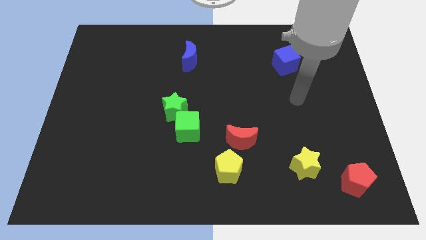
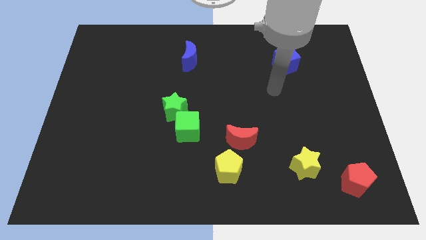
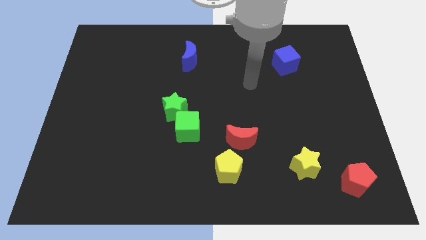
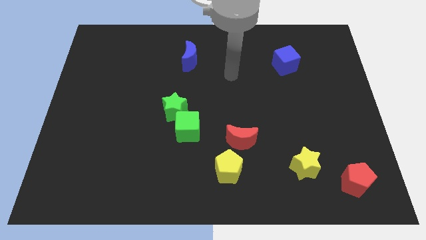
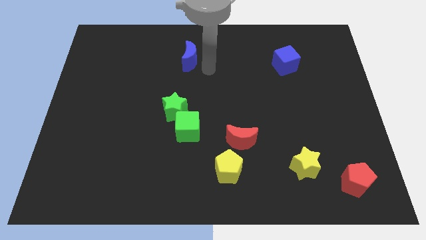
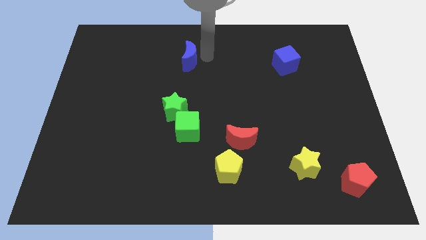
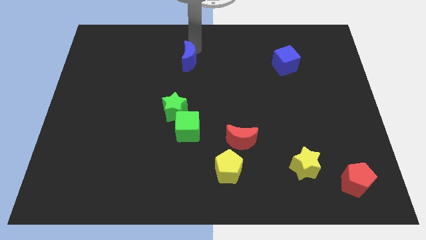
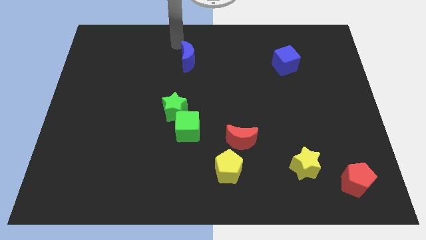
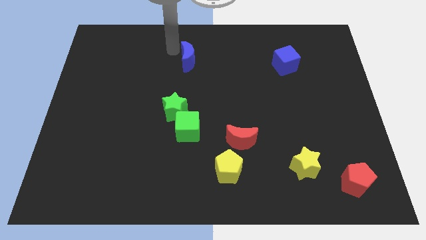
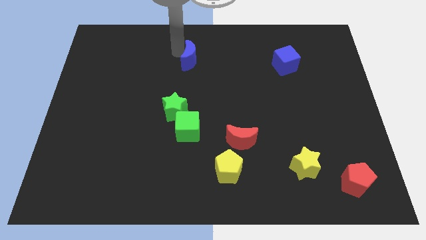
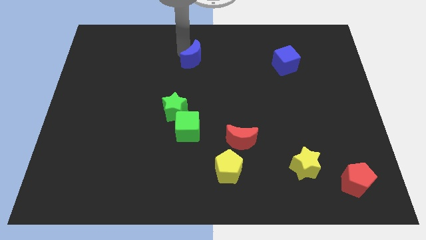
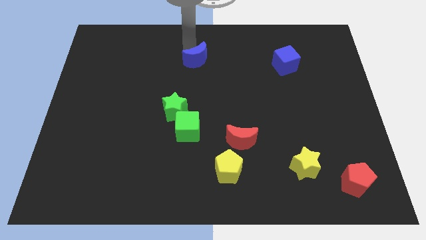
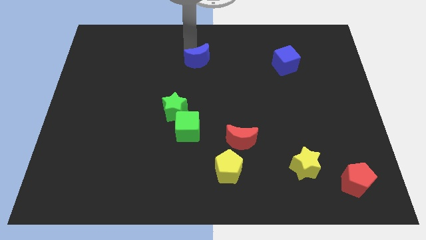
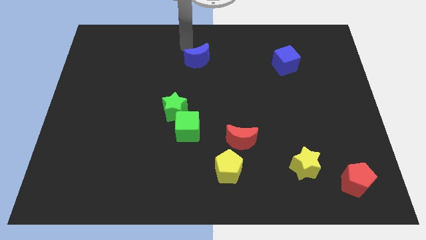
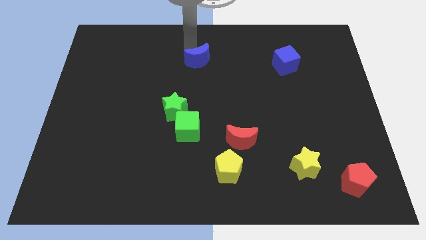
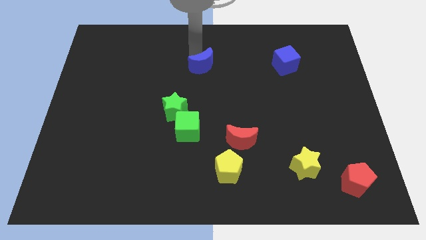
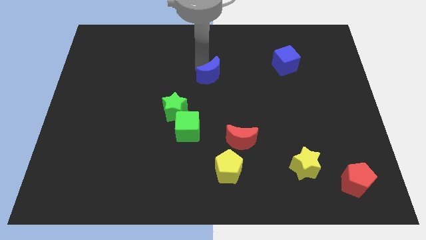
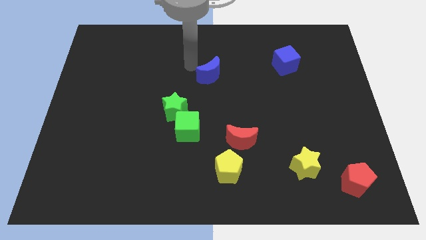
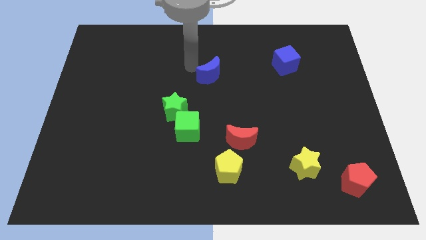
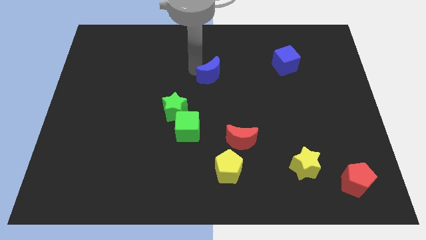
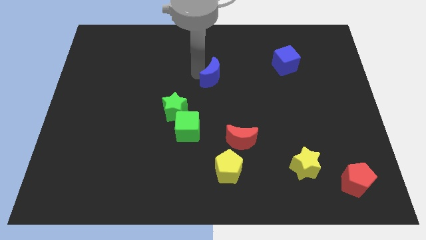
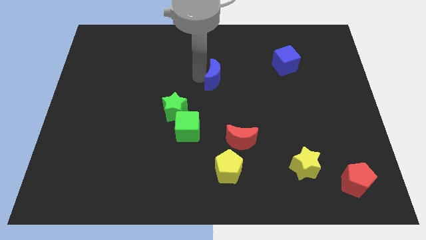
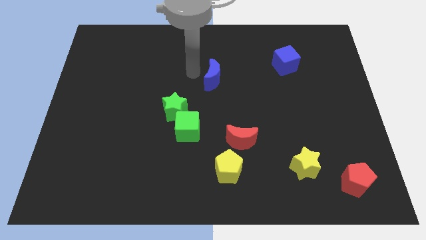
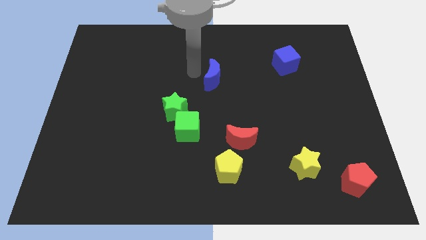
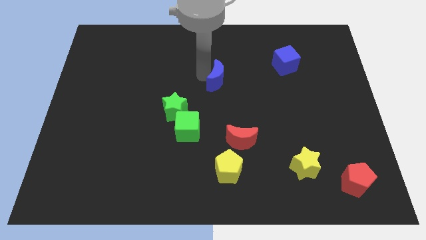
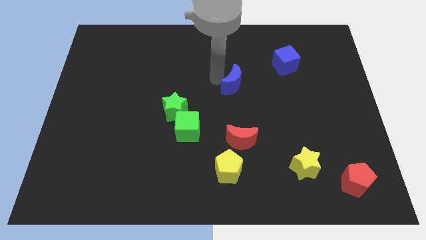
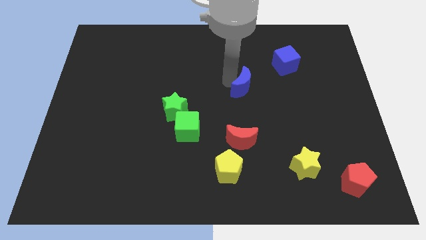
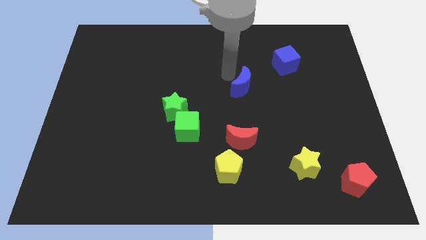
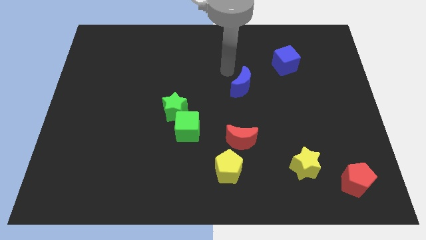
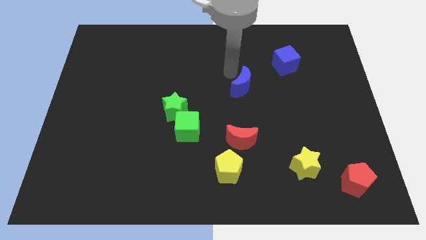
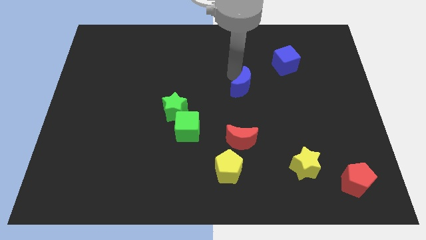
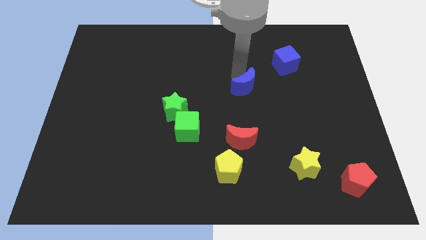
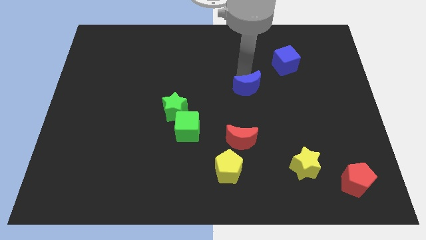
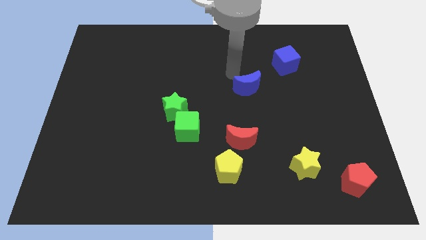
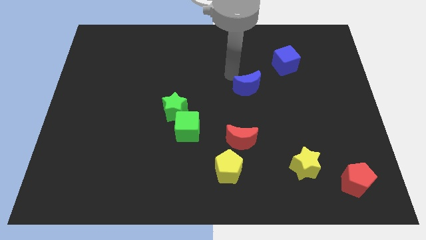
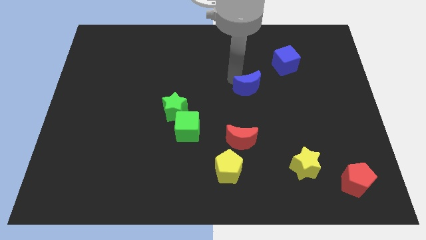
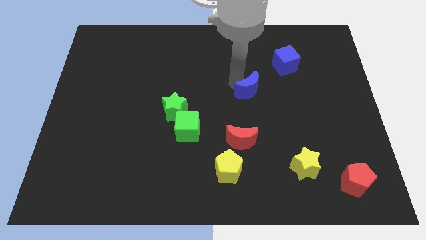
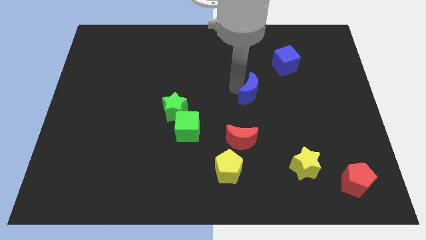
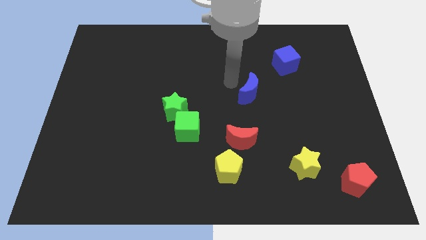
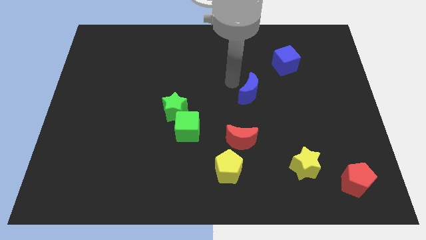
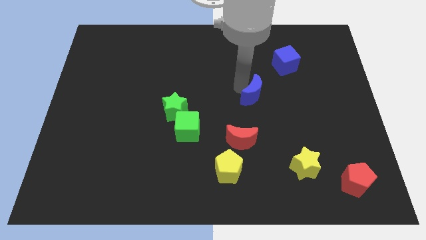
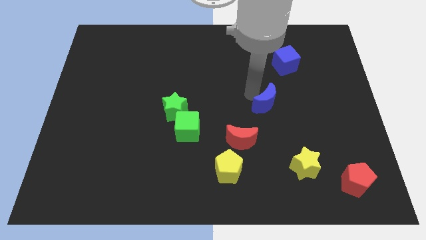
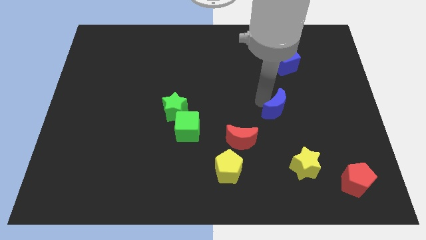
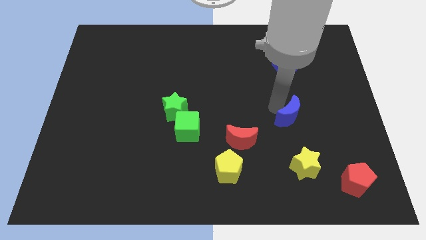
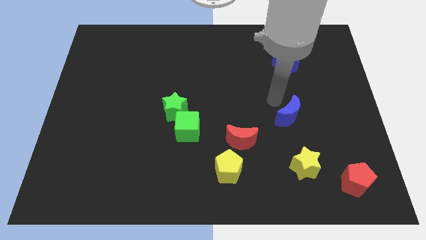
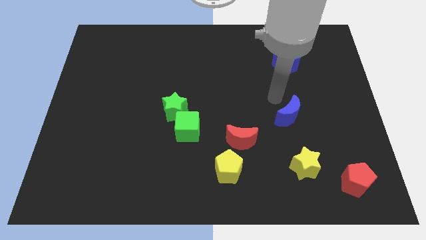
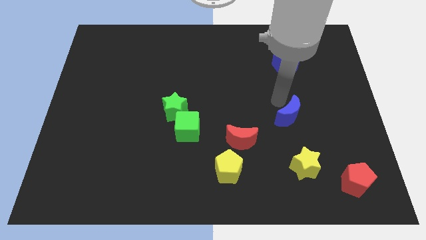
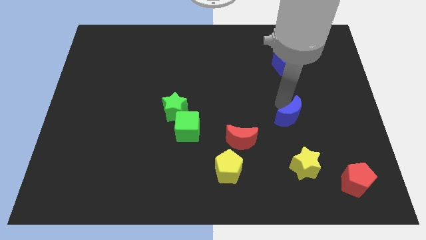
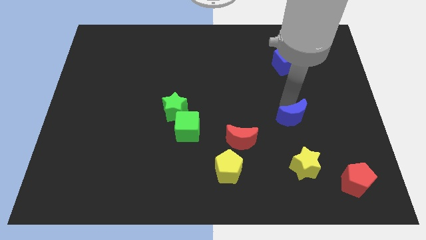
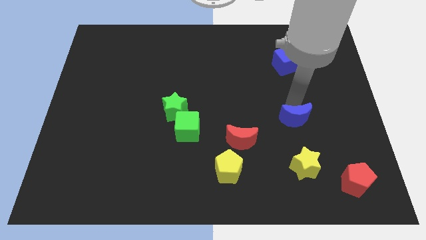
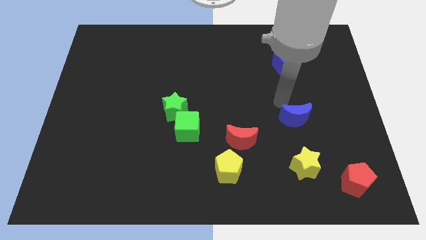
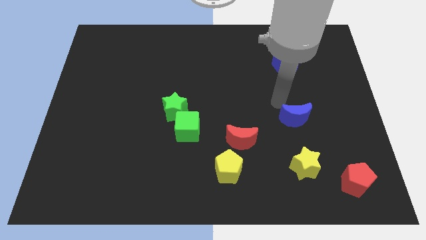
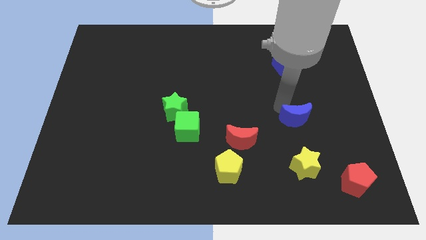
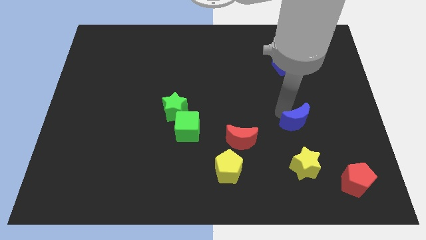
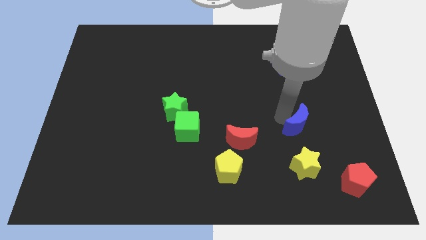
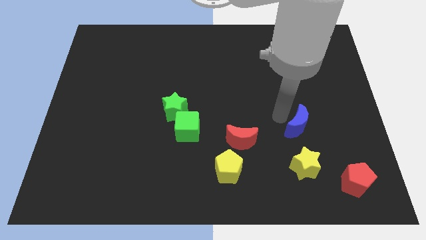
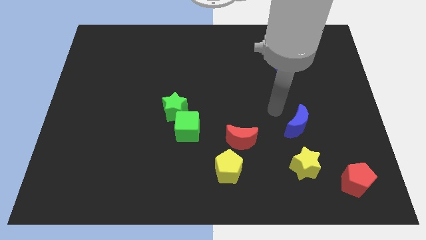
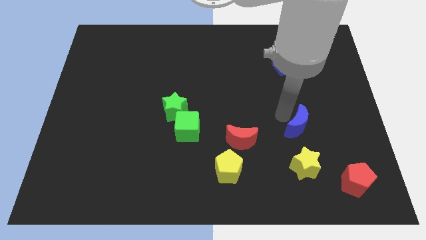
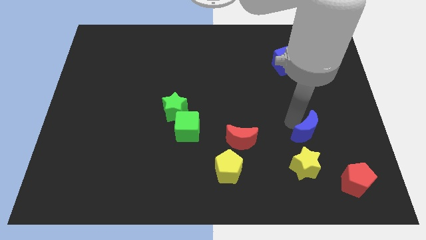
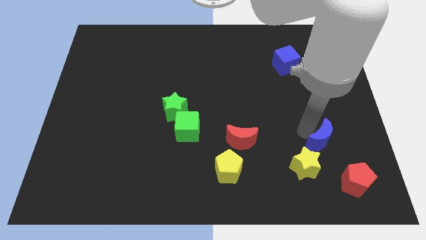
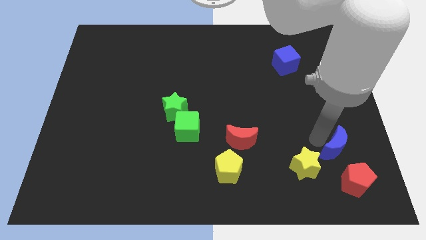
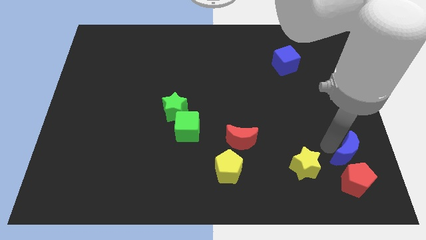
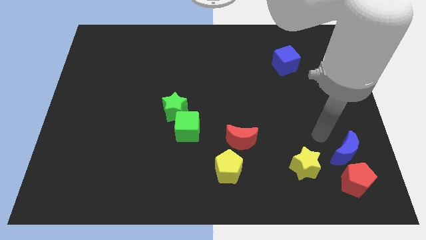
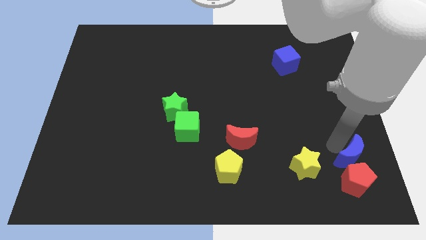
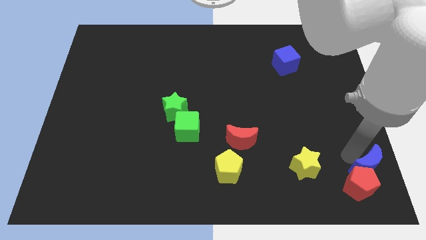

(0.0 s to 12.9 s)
push the blue moon to the bottom right of the board
